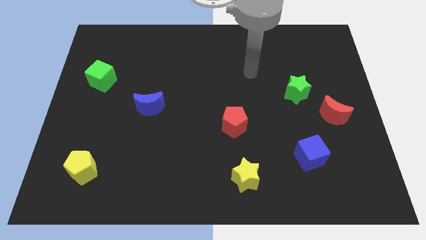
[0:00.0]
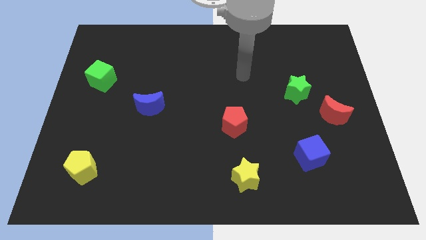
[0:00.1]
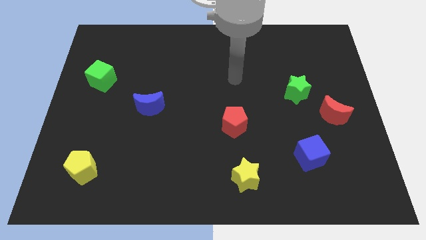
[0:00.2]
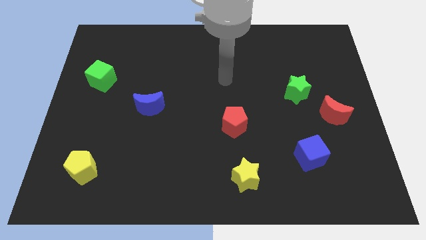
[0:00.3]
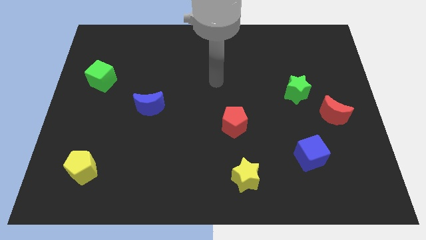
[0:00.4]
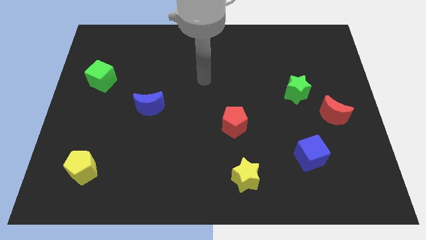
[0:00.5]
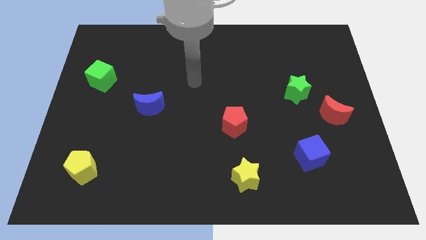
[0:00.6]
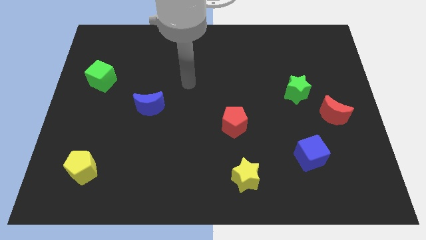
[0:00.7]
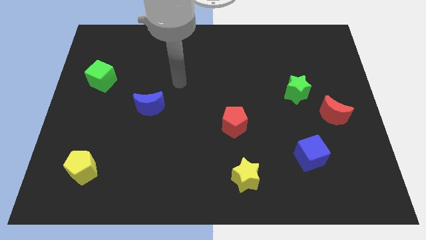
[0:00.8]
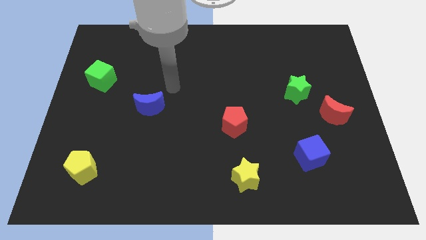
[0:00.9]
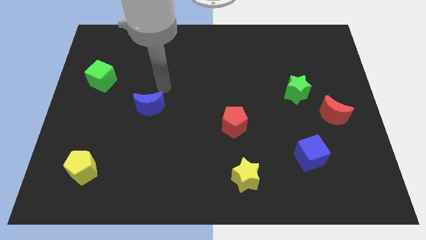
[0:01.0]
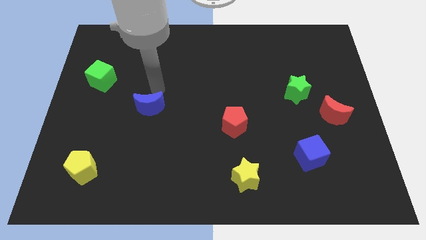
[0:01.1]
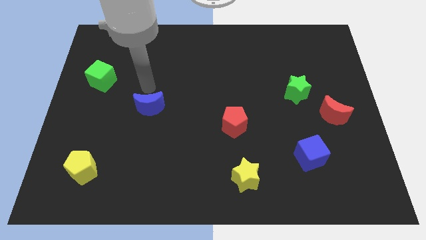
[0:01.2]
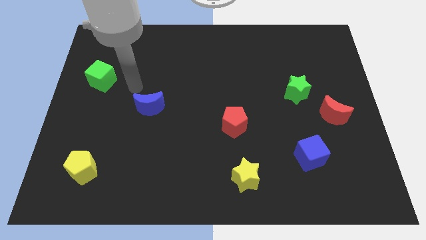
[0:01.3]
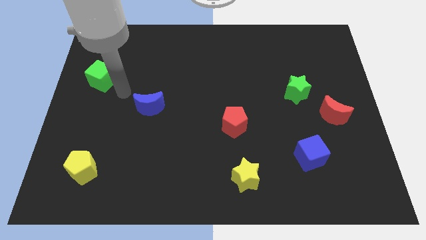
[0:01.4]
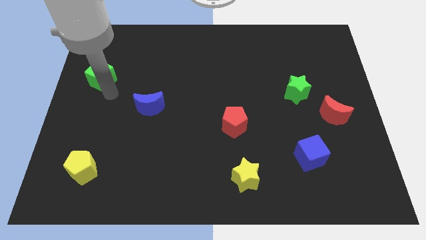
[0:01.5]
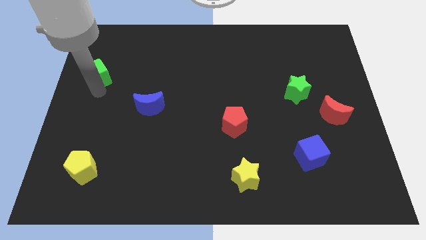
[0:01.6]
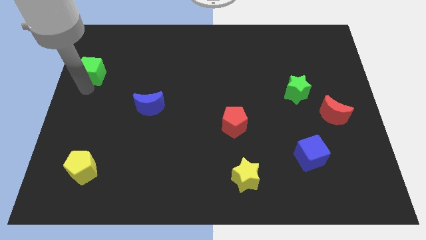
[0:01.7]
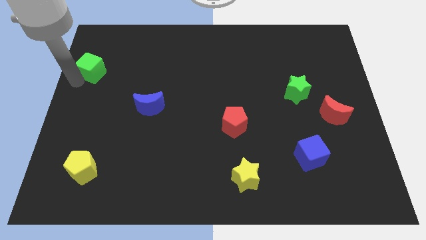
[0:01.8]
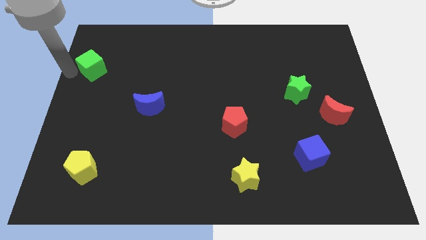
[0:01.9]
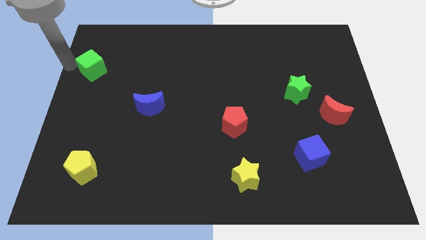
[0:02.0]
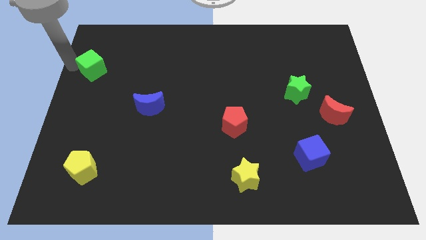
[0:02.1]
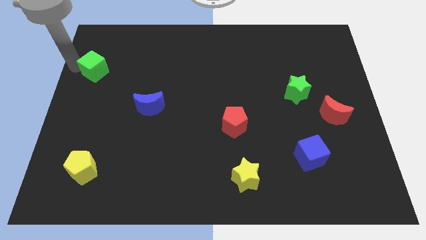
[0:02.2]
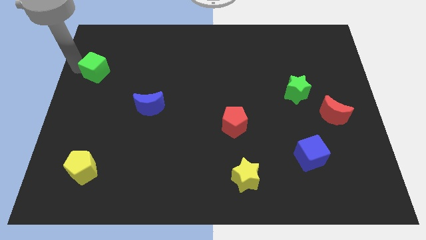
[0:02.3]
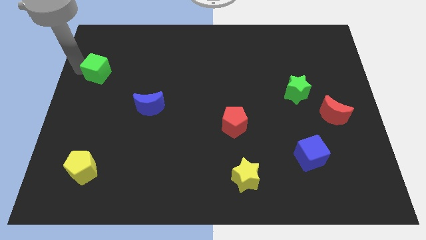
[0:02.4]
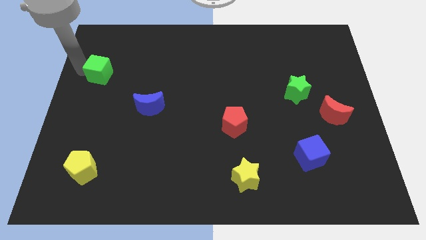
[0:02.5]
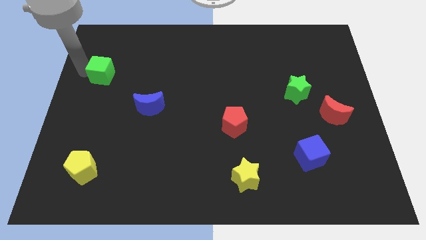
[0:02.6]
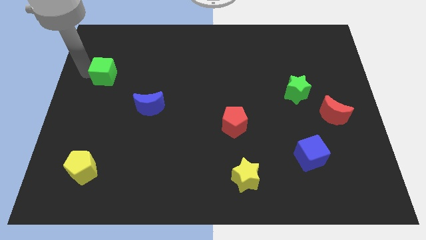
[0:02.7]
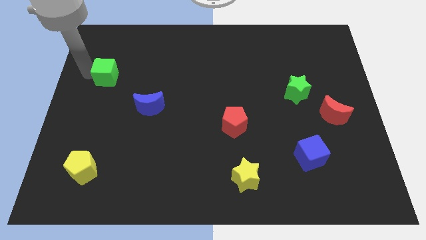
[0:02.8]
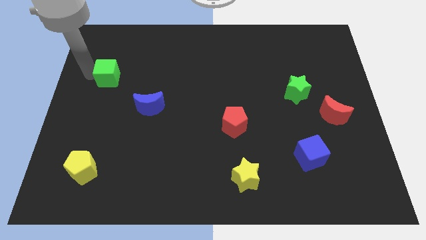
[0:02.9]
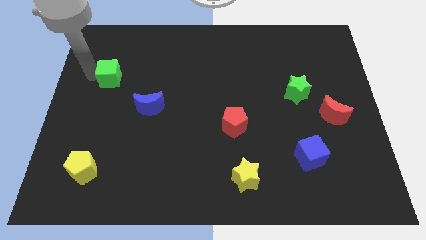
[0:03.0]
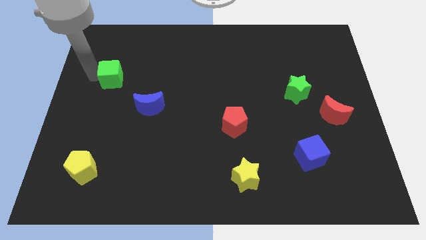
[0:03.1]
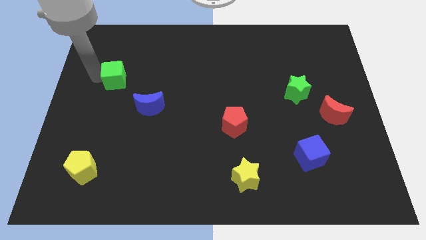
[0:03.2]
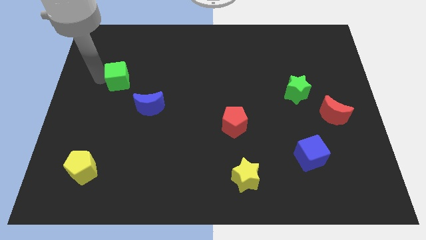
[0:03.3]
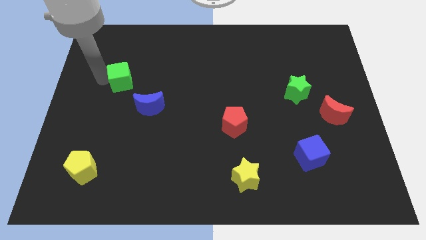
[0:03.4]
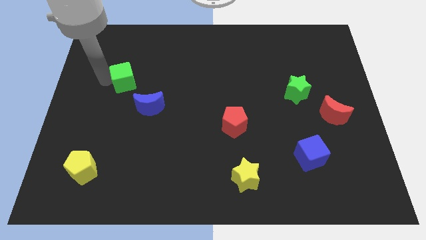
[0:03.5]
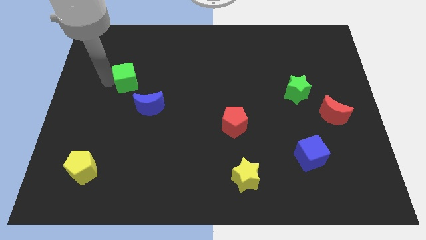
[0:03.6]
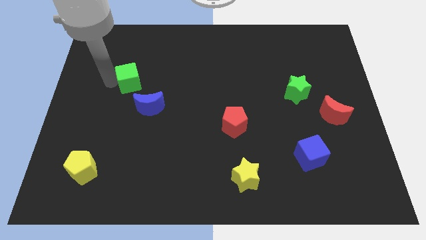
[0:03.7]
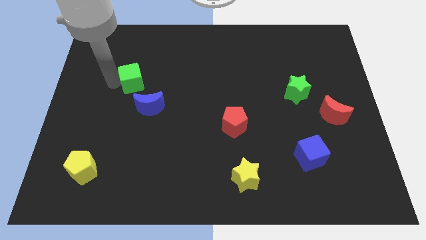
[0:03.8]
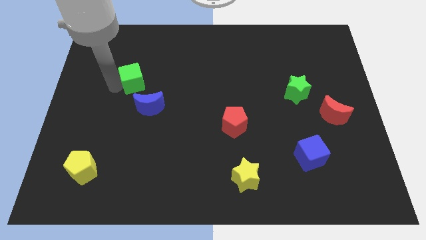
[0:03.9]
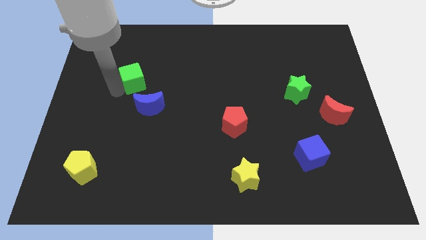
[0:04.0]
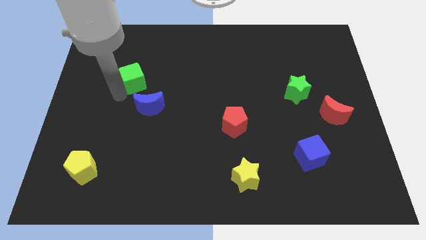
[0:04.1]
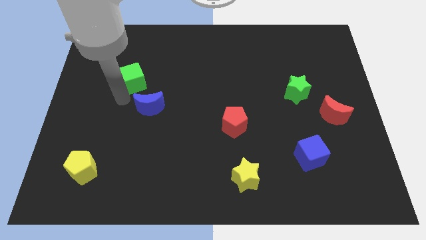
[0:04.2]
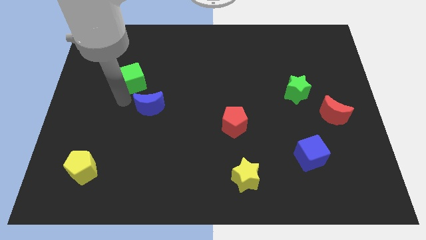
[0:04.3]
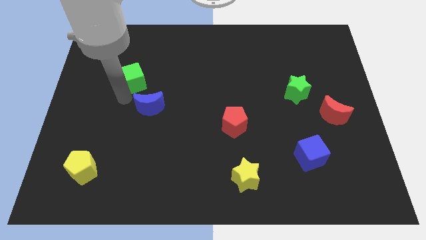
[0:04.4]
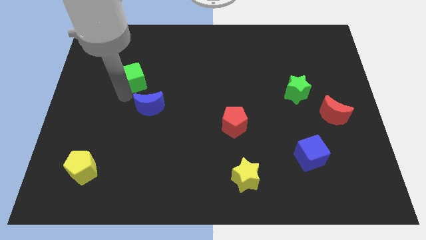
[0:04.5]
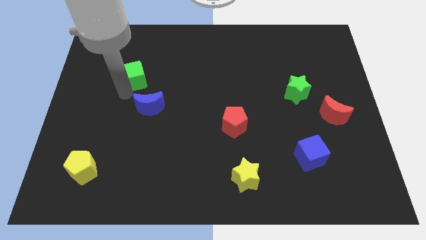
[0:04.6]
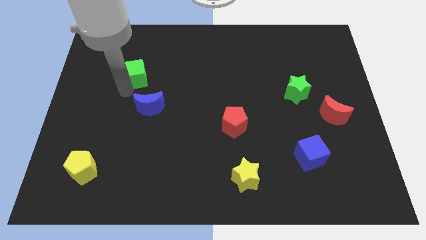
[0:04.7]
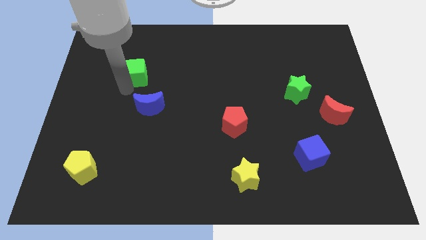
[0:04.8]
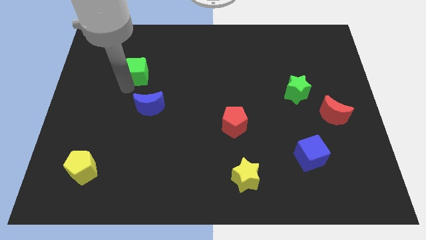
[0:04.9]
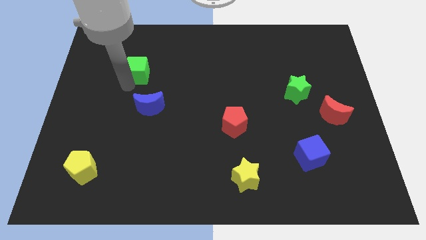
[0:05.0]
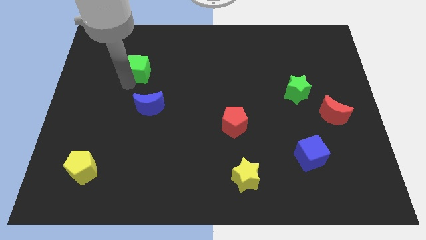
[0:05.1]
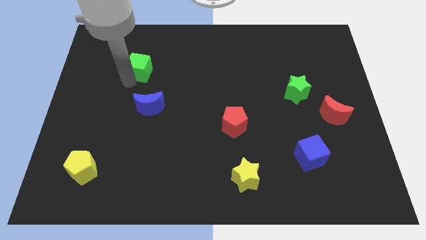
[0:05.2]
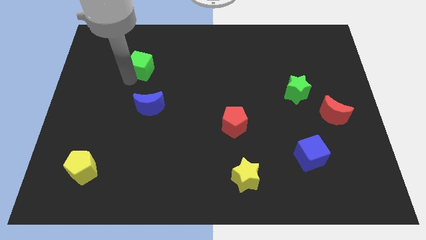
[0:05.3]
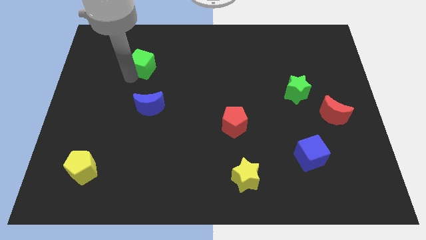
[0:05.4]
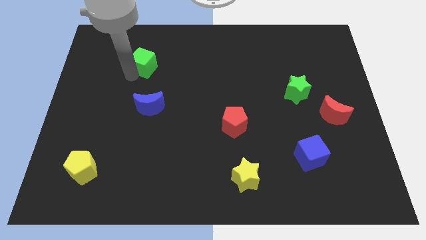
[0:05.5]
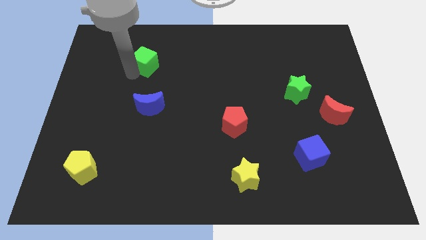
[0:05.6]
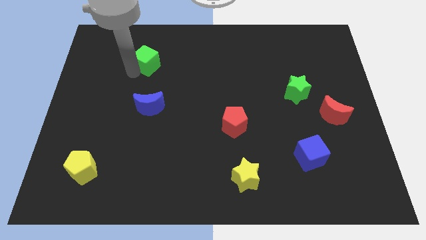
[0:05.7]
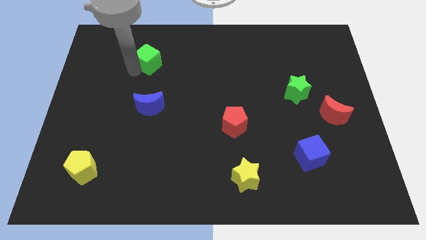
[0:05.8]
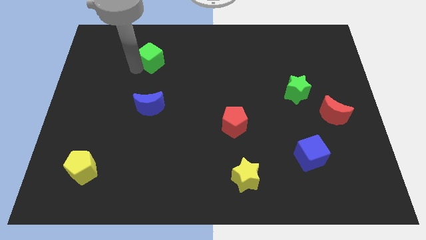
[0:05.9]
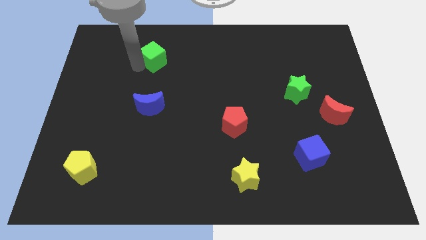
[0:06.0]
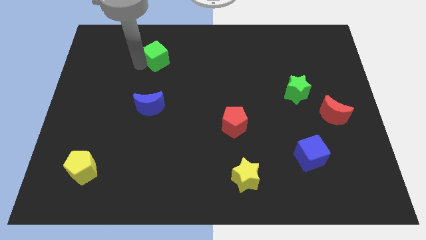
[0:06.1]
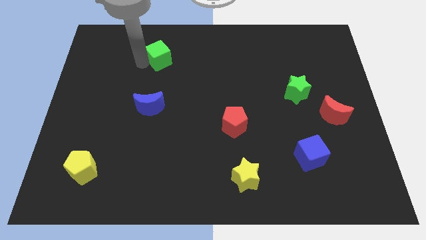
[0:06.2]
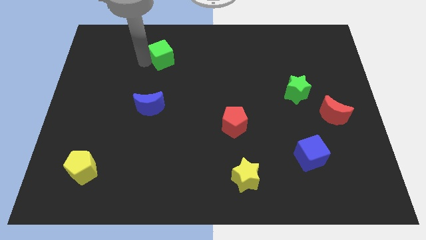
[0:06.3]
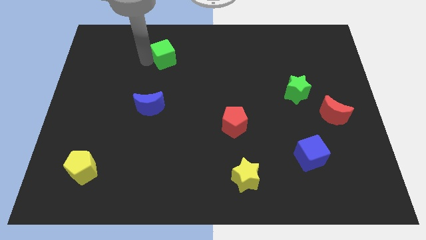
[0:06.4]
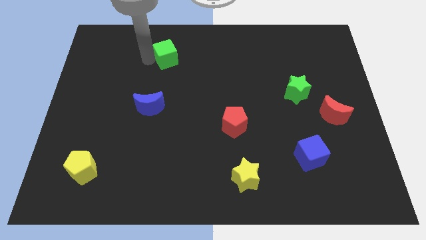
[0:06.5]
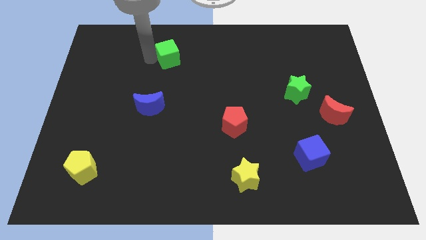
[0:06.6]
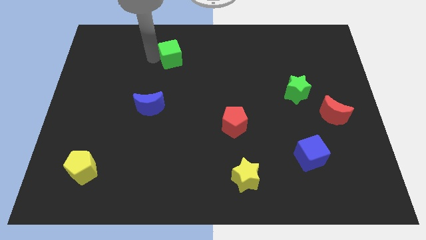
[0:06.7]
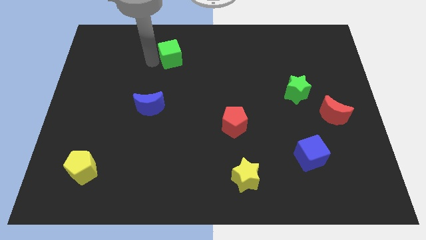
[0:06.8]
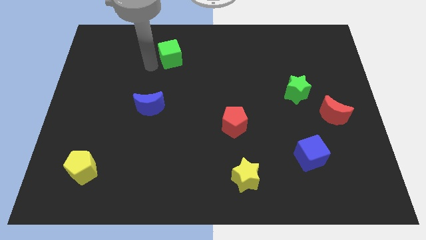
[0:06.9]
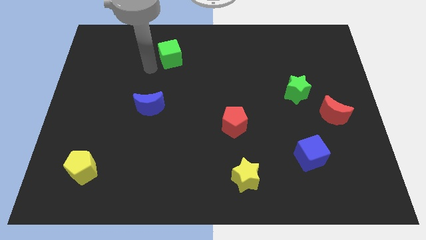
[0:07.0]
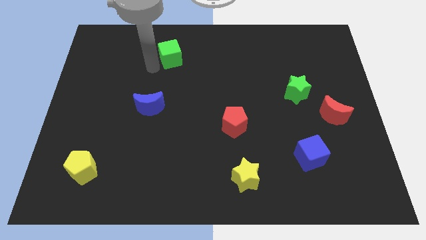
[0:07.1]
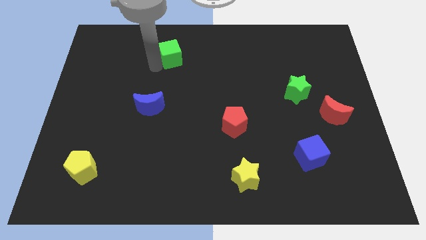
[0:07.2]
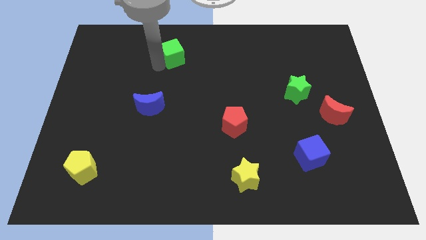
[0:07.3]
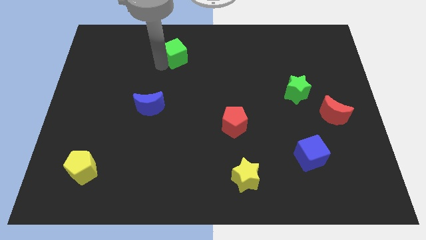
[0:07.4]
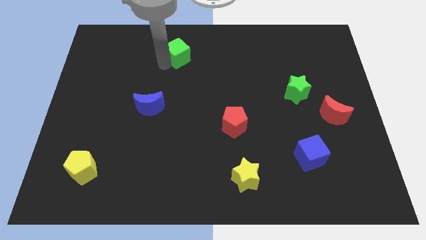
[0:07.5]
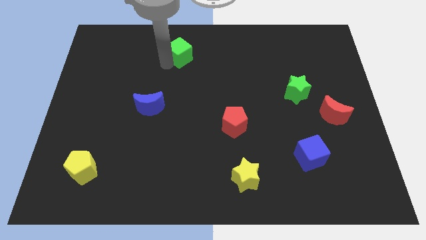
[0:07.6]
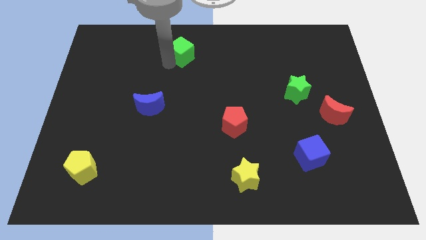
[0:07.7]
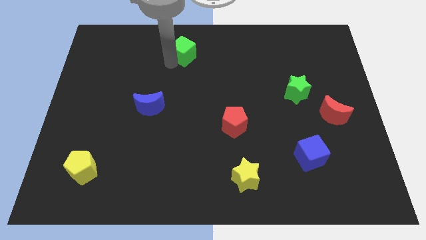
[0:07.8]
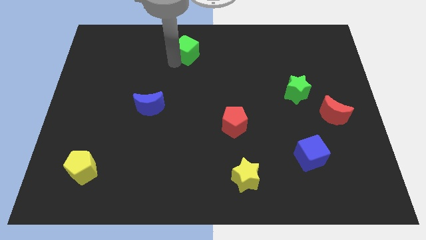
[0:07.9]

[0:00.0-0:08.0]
put the green cube to the top side
